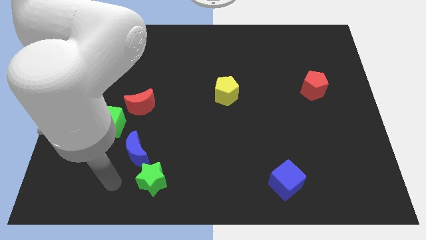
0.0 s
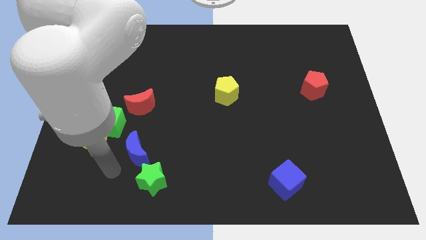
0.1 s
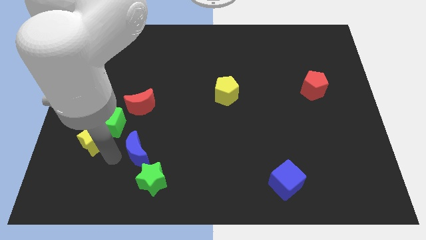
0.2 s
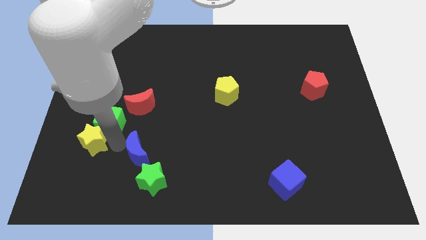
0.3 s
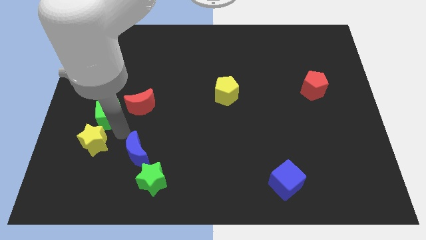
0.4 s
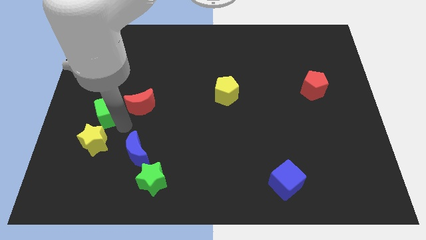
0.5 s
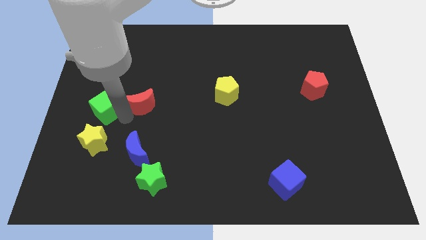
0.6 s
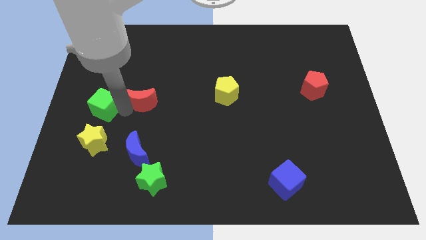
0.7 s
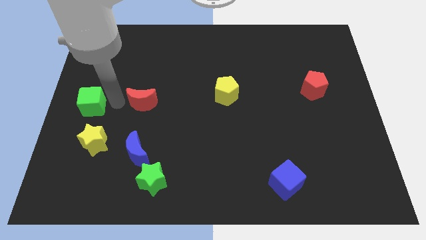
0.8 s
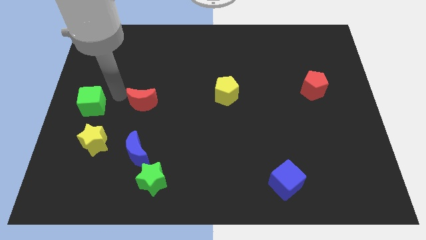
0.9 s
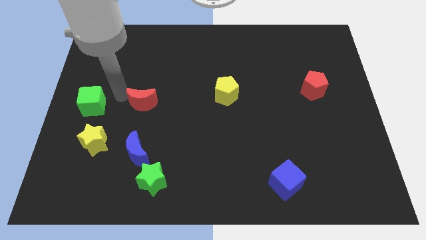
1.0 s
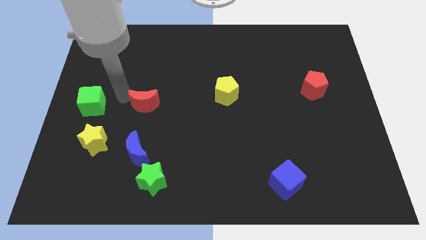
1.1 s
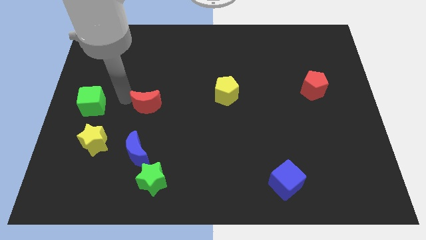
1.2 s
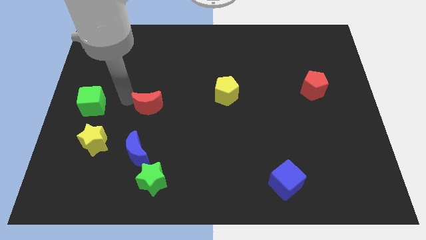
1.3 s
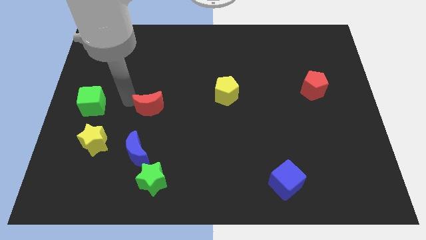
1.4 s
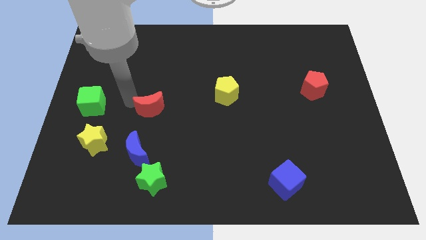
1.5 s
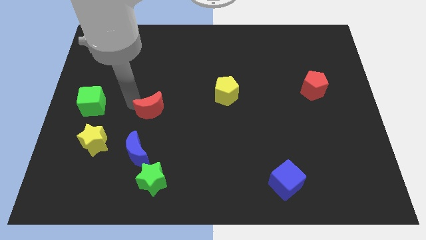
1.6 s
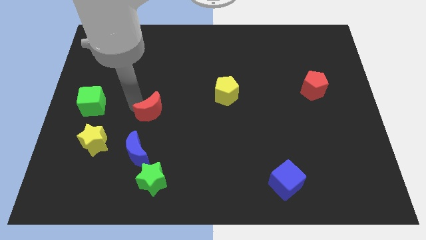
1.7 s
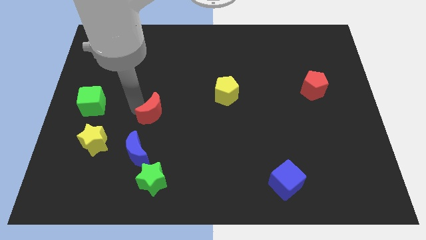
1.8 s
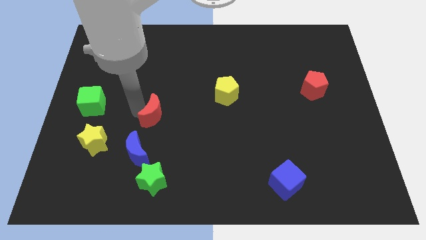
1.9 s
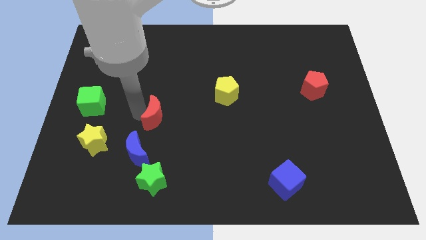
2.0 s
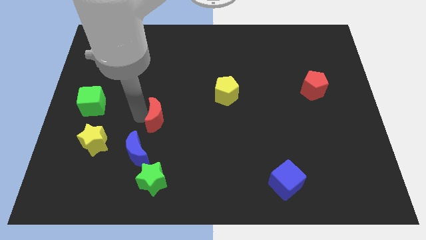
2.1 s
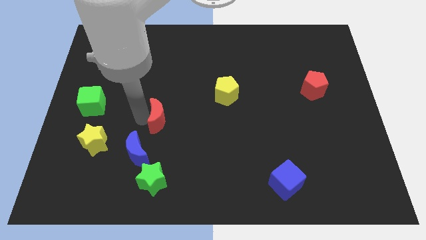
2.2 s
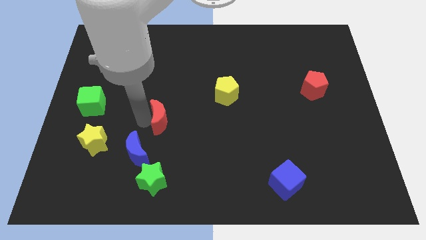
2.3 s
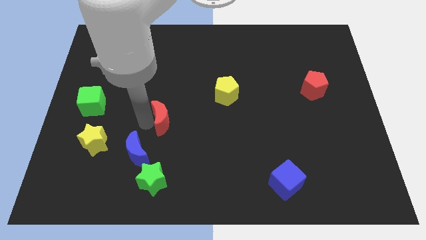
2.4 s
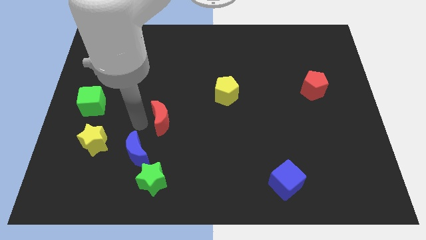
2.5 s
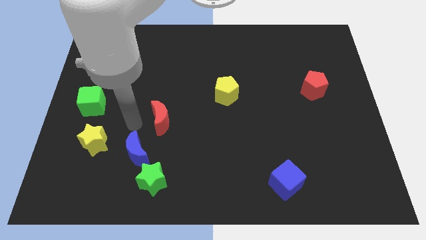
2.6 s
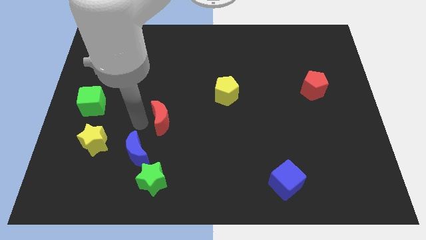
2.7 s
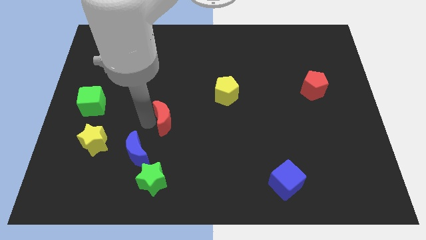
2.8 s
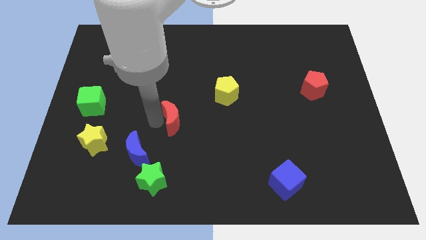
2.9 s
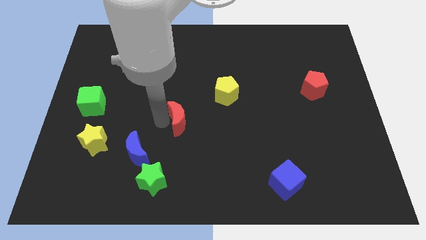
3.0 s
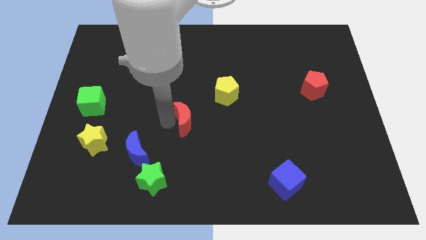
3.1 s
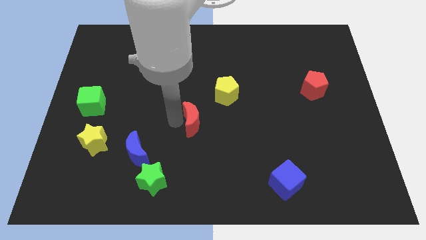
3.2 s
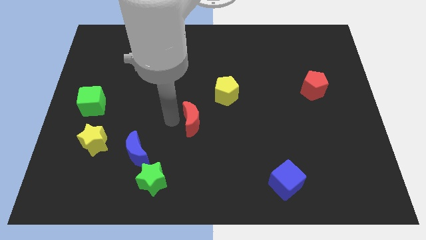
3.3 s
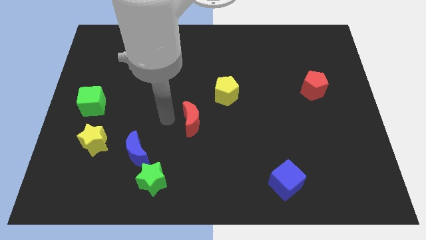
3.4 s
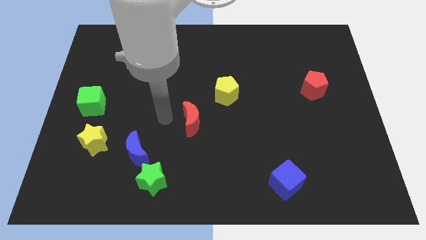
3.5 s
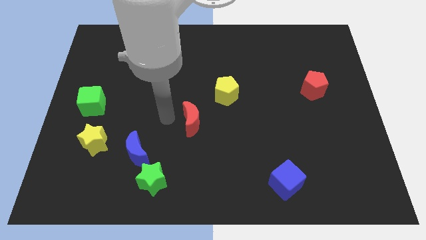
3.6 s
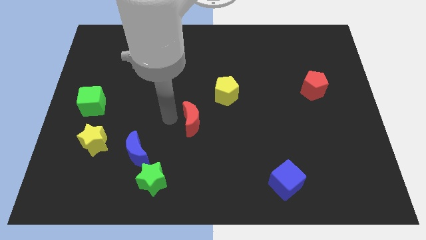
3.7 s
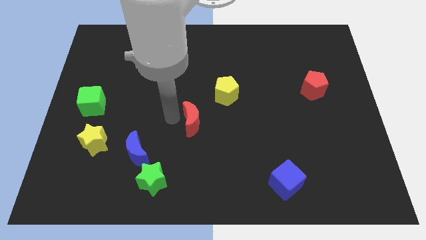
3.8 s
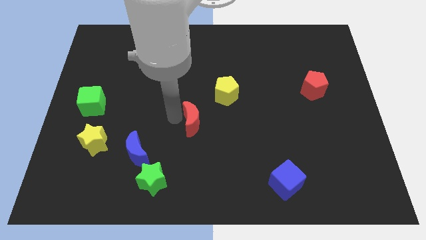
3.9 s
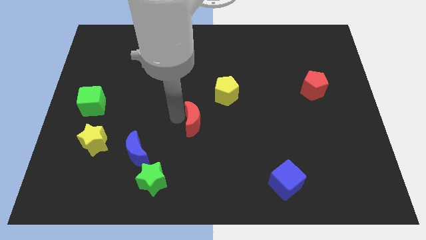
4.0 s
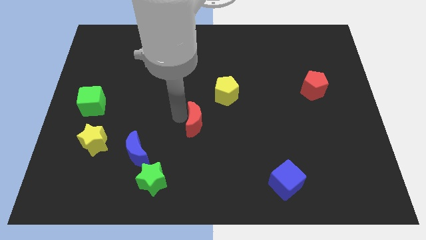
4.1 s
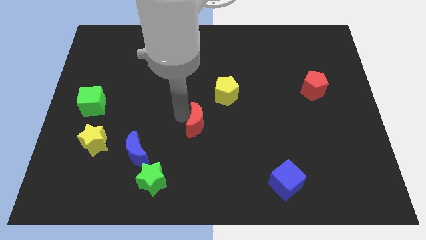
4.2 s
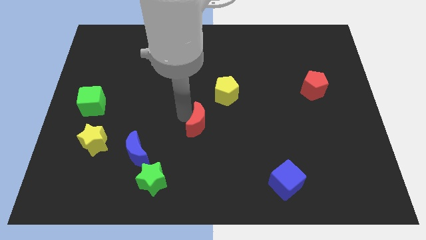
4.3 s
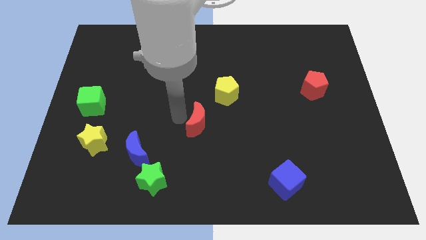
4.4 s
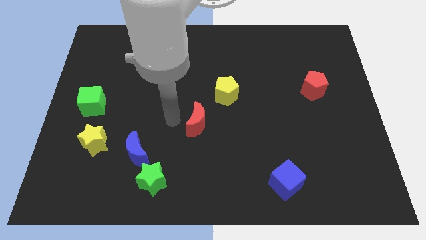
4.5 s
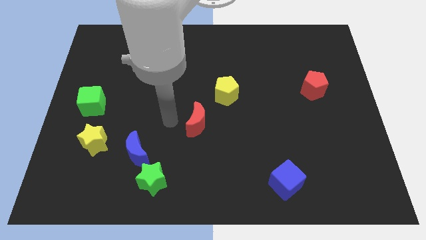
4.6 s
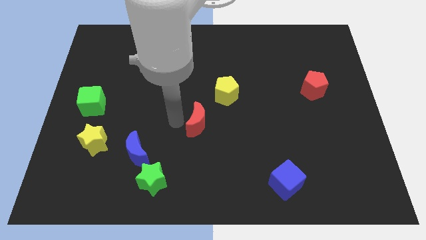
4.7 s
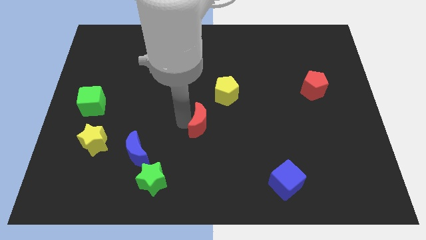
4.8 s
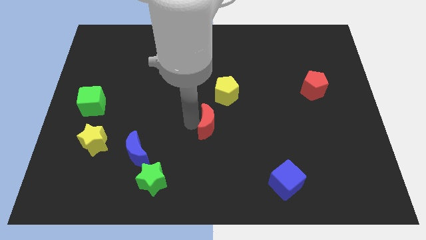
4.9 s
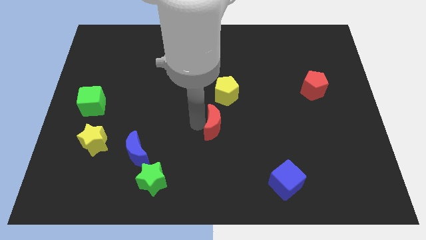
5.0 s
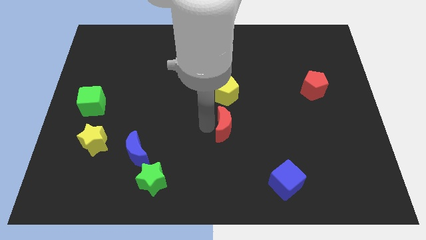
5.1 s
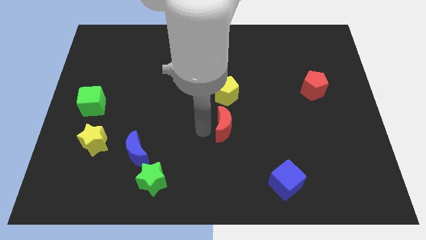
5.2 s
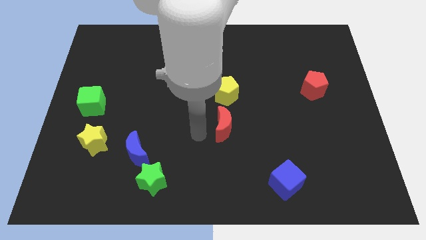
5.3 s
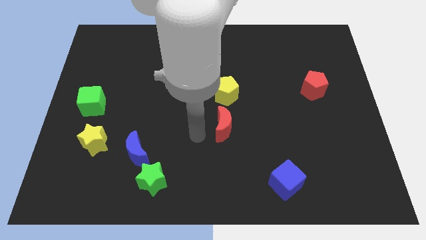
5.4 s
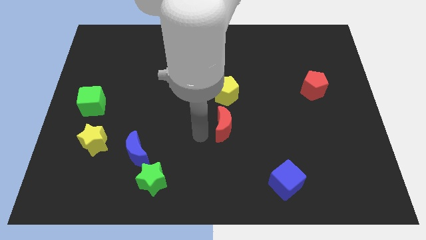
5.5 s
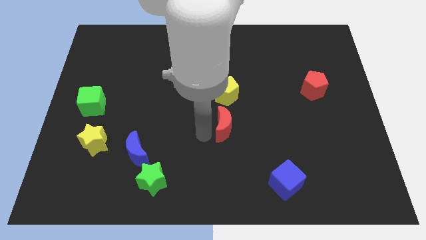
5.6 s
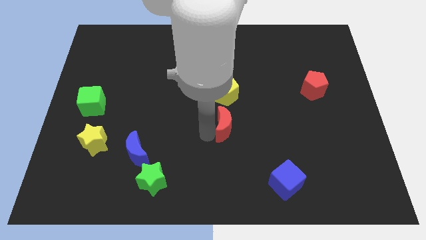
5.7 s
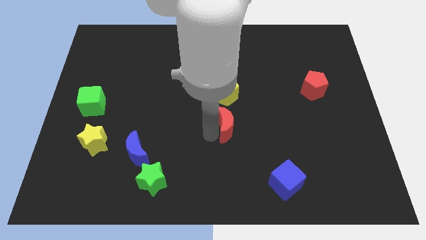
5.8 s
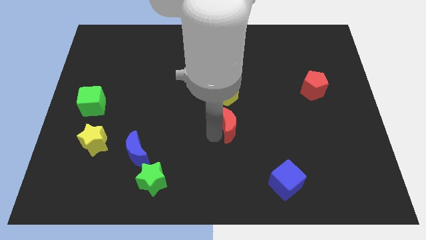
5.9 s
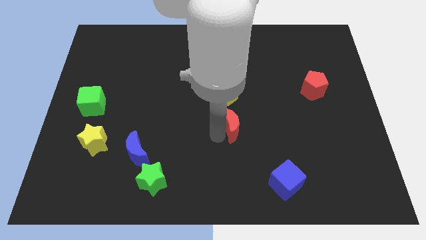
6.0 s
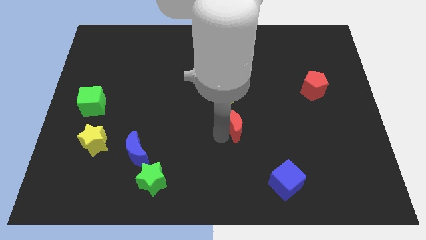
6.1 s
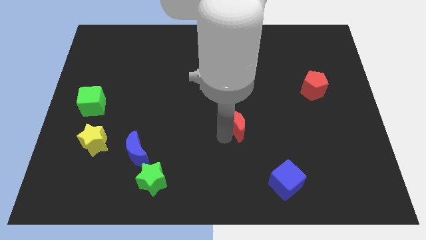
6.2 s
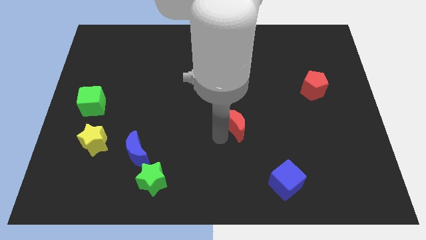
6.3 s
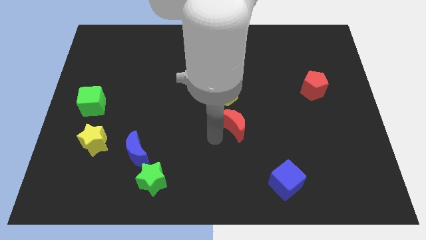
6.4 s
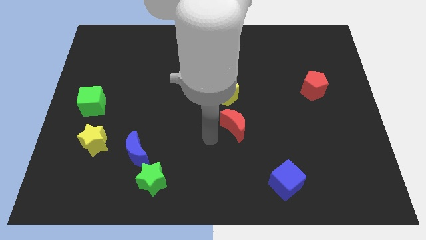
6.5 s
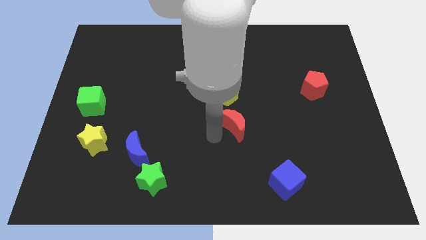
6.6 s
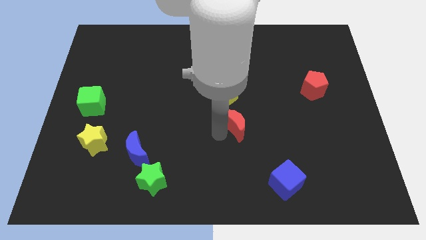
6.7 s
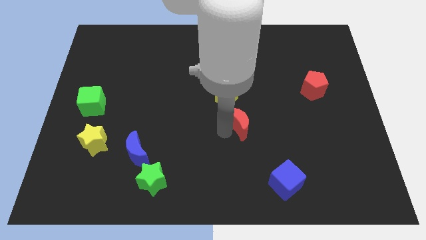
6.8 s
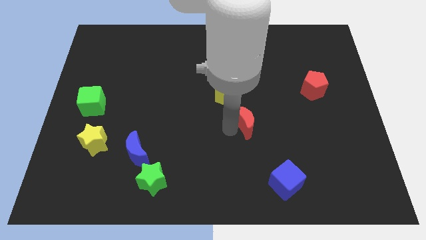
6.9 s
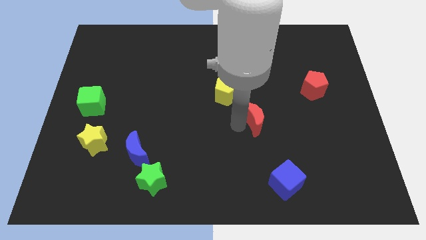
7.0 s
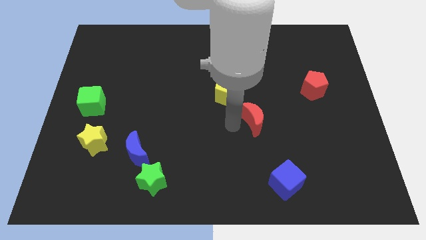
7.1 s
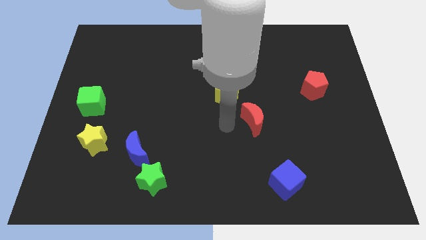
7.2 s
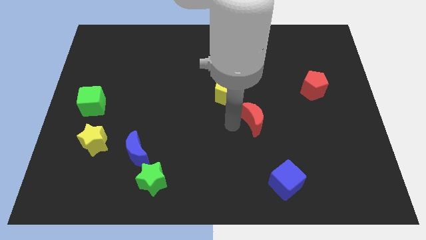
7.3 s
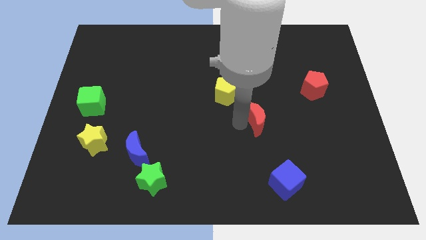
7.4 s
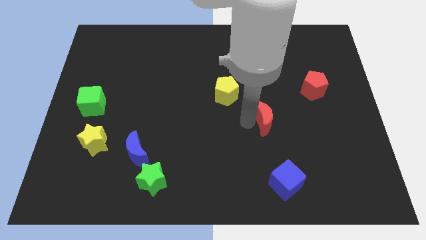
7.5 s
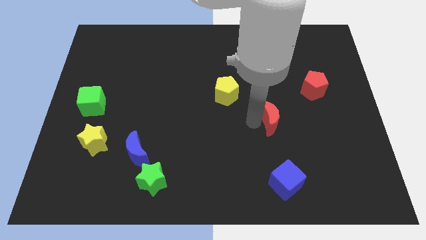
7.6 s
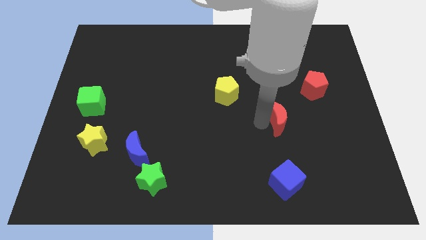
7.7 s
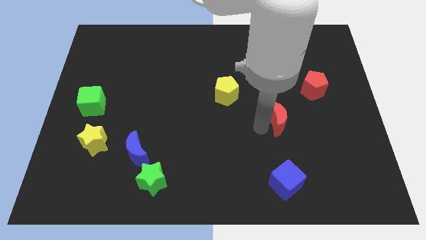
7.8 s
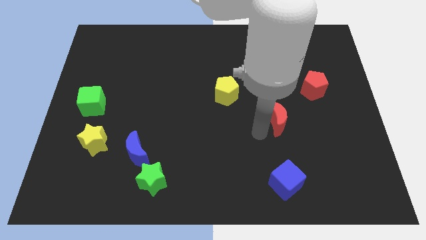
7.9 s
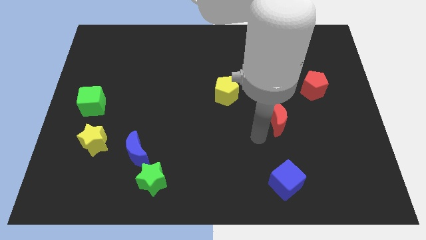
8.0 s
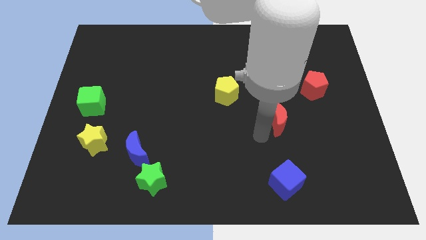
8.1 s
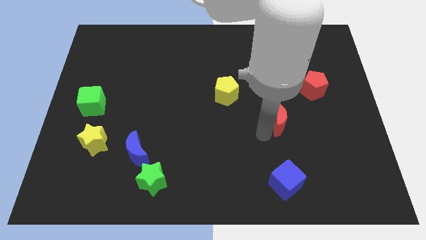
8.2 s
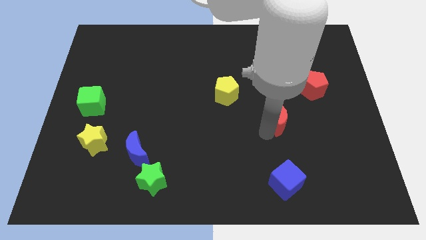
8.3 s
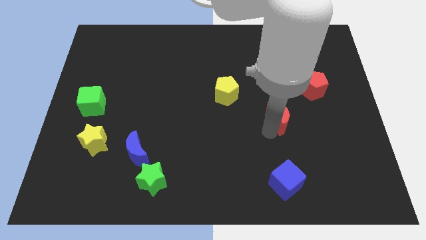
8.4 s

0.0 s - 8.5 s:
push the red moon to the bottom left side of the red pentagon
